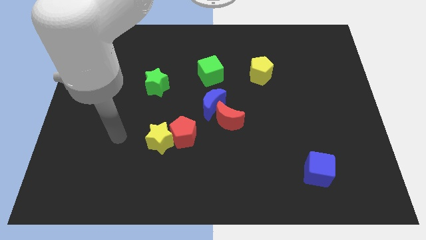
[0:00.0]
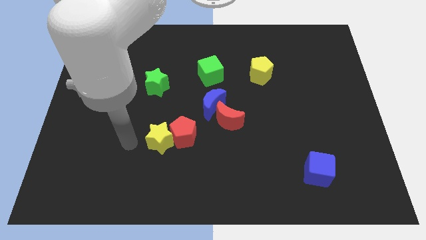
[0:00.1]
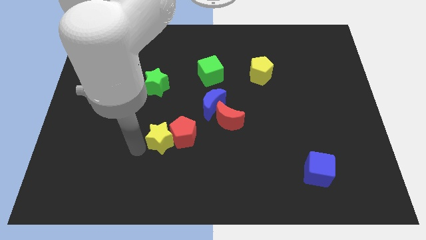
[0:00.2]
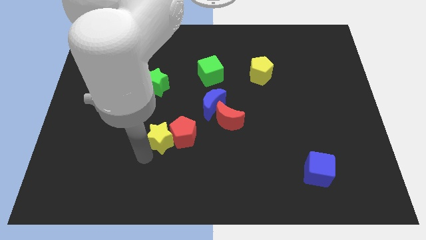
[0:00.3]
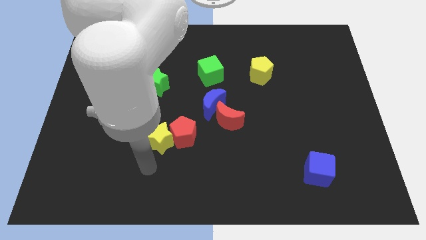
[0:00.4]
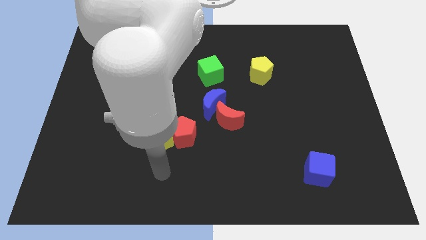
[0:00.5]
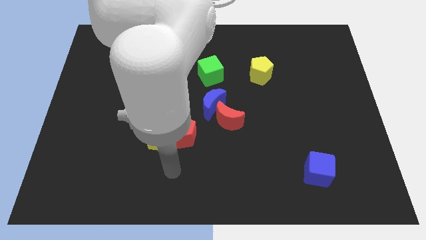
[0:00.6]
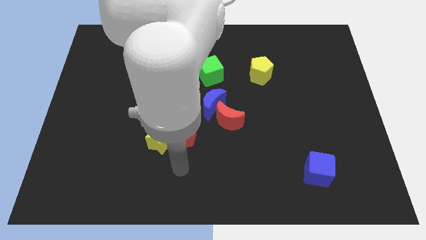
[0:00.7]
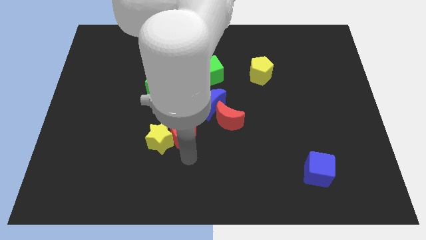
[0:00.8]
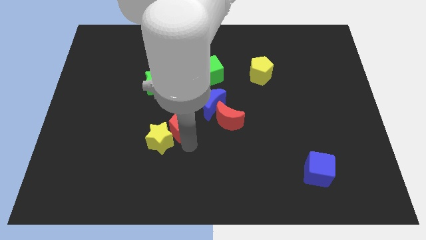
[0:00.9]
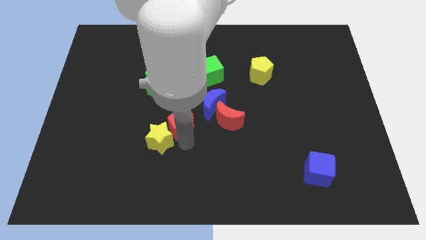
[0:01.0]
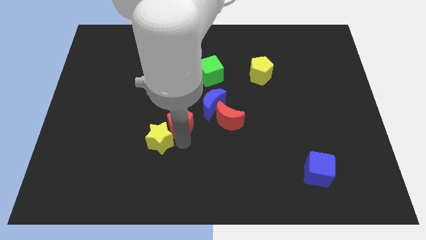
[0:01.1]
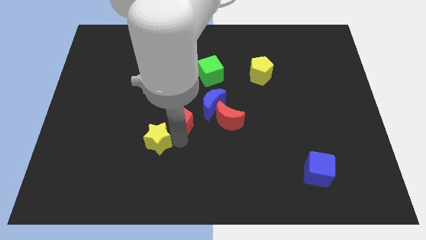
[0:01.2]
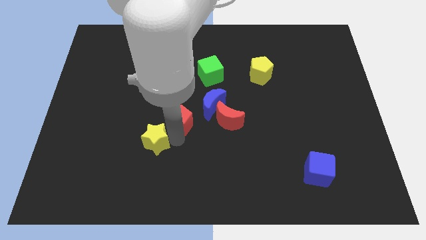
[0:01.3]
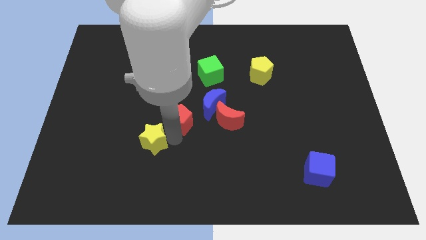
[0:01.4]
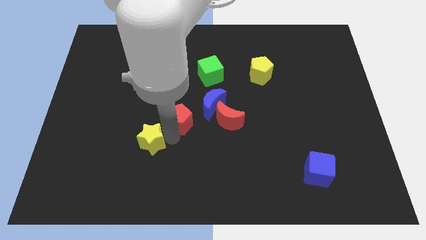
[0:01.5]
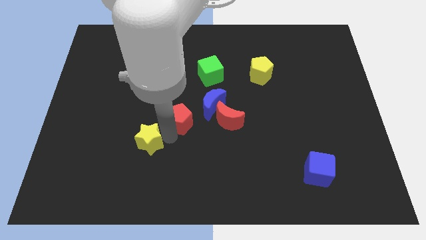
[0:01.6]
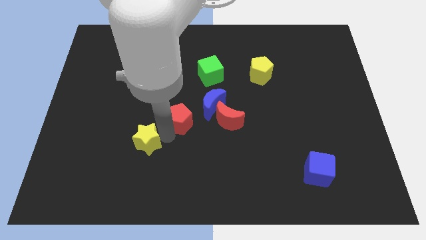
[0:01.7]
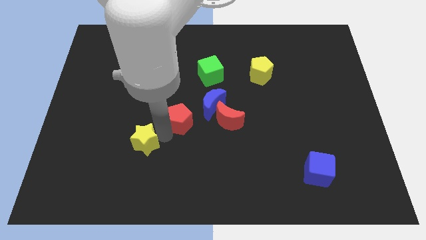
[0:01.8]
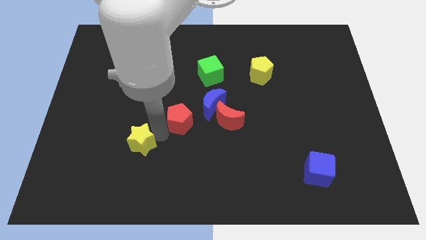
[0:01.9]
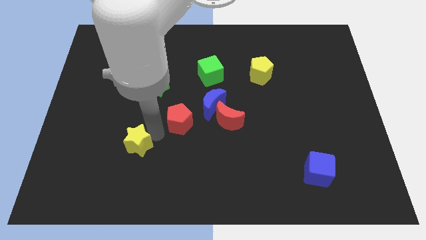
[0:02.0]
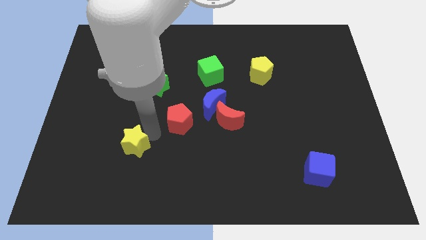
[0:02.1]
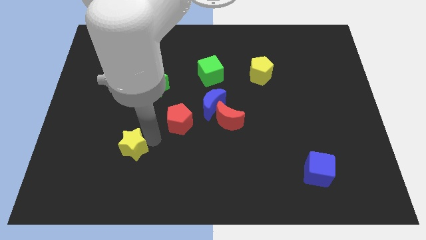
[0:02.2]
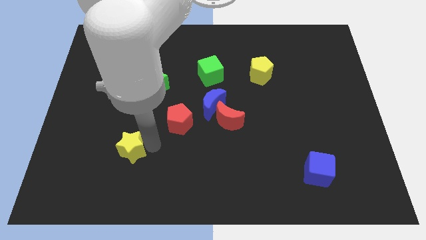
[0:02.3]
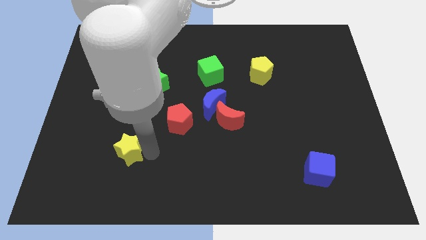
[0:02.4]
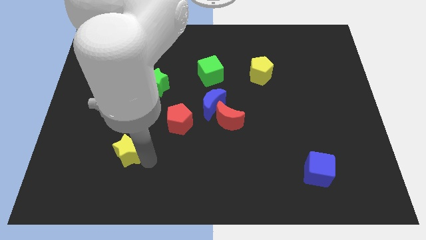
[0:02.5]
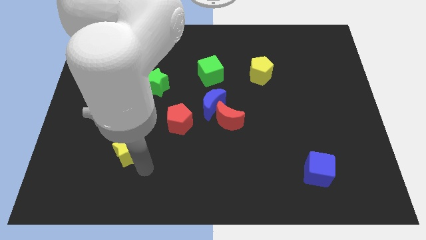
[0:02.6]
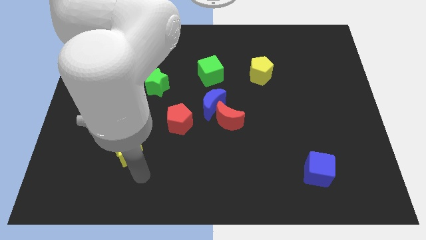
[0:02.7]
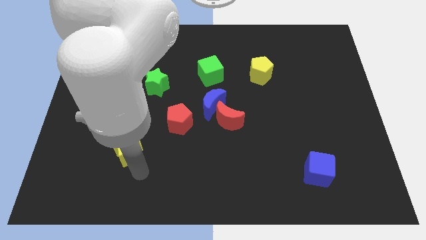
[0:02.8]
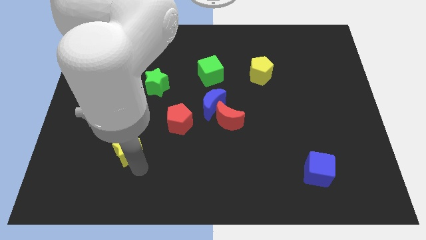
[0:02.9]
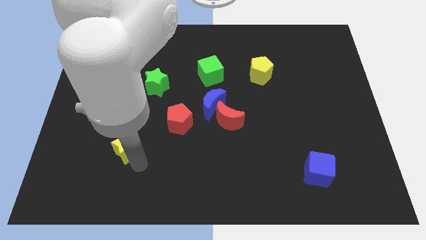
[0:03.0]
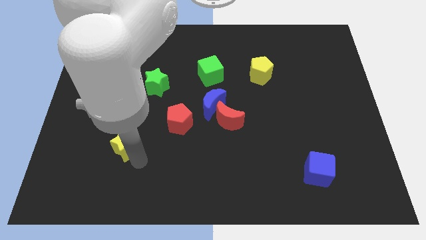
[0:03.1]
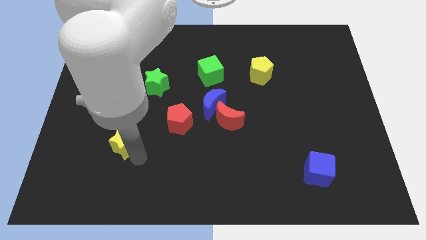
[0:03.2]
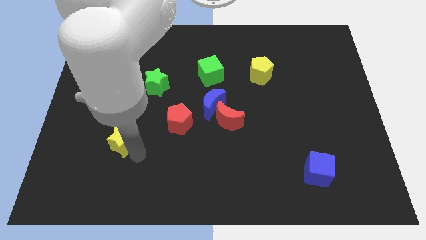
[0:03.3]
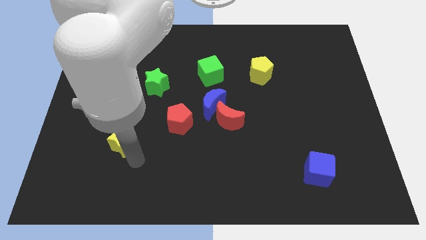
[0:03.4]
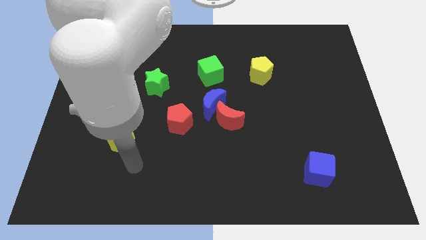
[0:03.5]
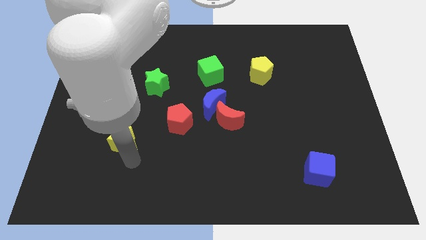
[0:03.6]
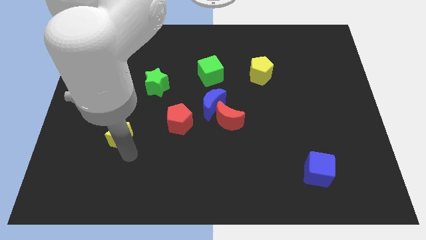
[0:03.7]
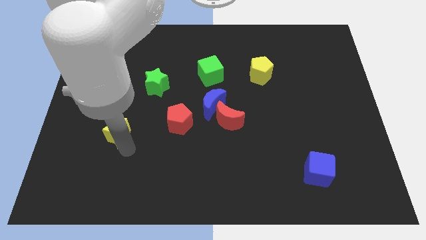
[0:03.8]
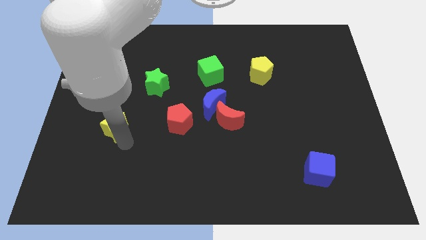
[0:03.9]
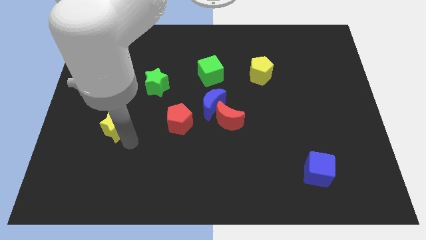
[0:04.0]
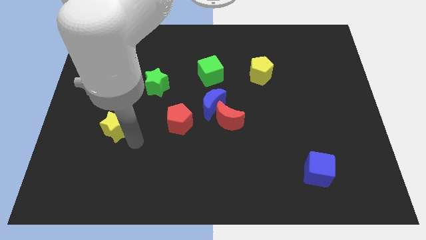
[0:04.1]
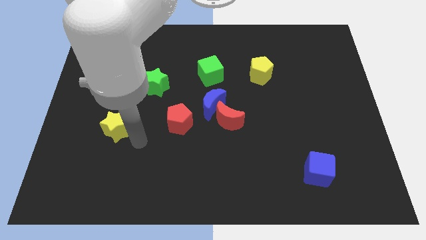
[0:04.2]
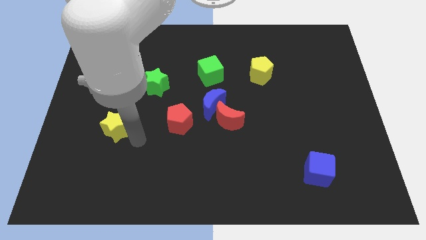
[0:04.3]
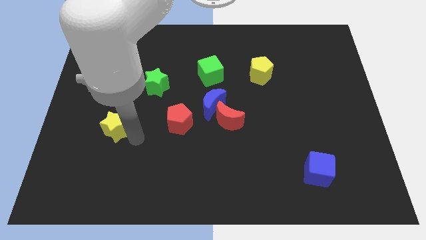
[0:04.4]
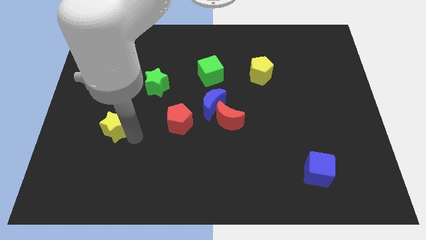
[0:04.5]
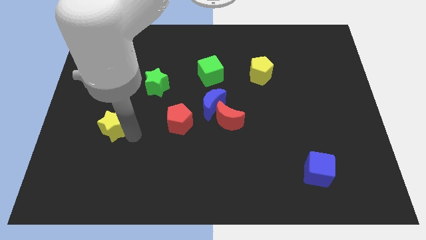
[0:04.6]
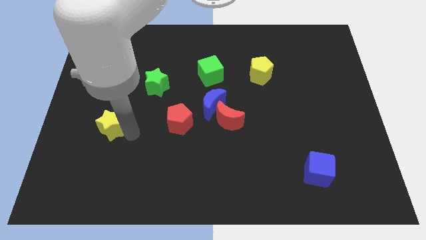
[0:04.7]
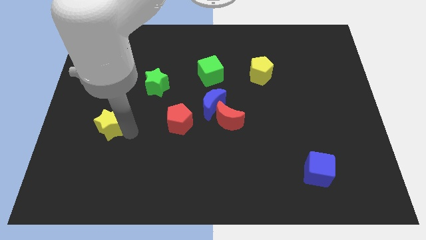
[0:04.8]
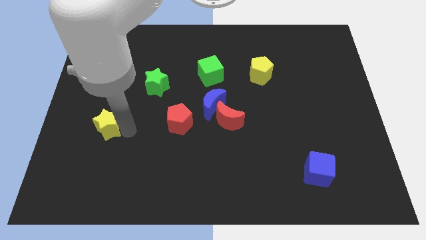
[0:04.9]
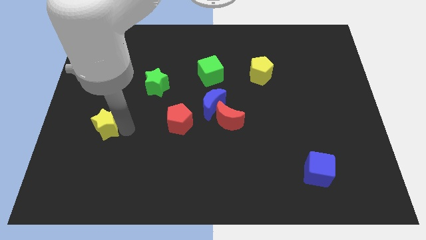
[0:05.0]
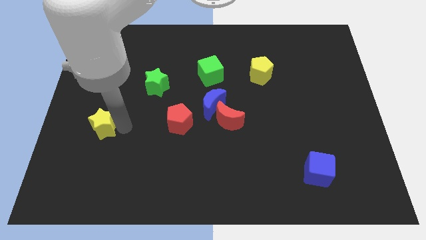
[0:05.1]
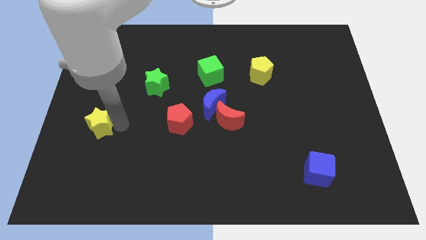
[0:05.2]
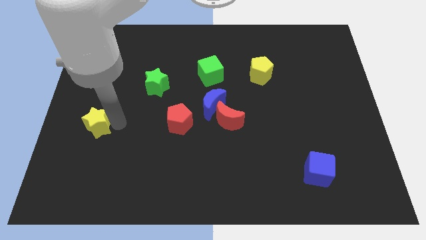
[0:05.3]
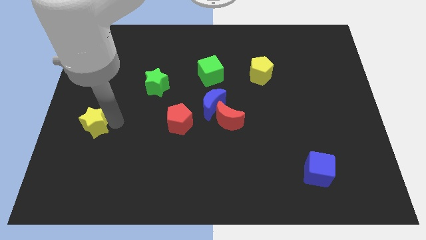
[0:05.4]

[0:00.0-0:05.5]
put the yellow star to the left side

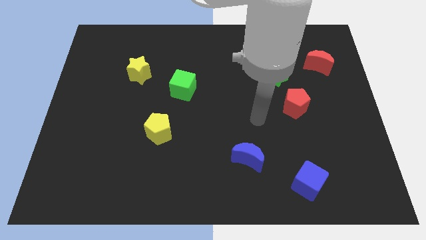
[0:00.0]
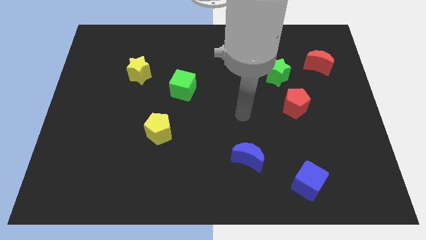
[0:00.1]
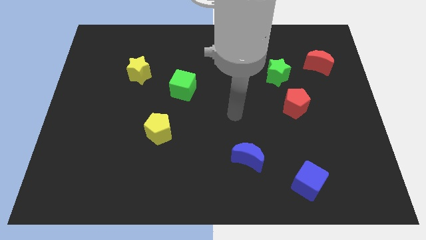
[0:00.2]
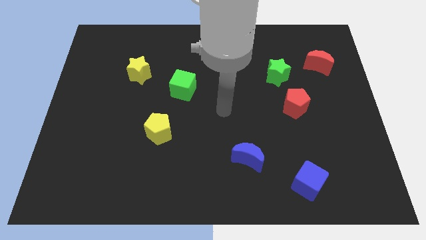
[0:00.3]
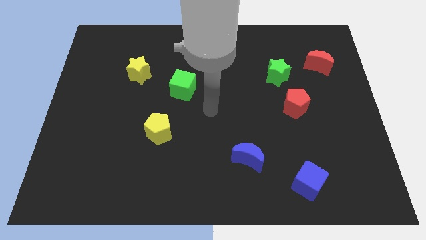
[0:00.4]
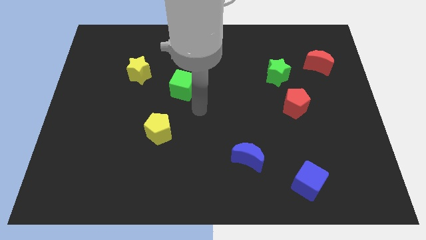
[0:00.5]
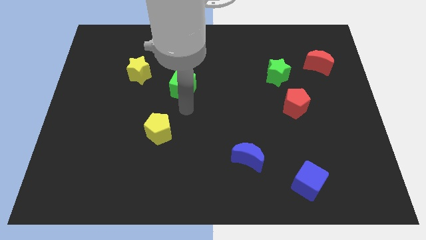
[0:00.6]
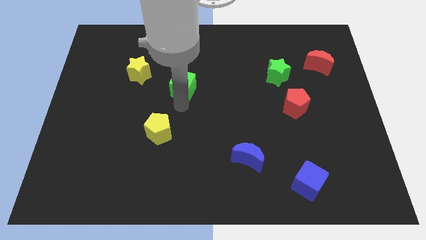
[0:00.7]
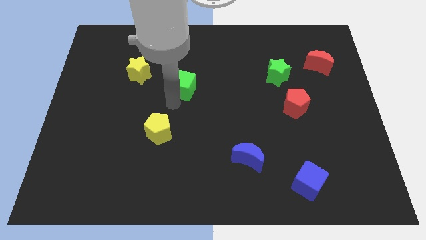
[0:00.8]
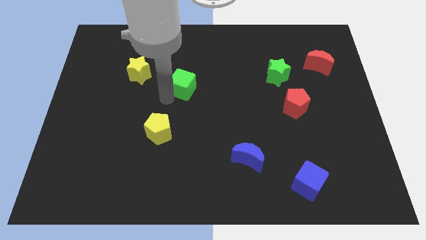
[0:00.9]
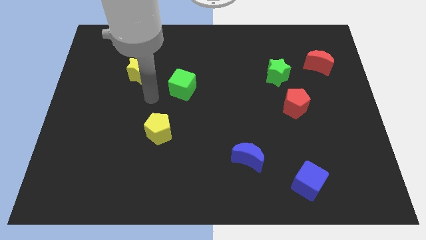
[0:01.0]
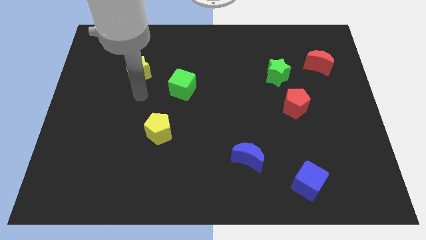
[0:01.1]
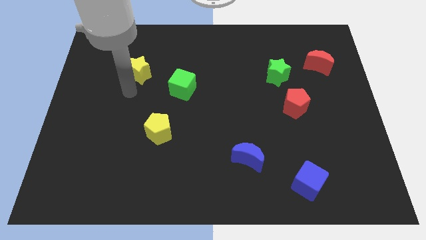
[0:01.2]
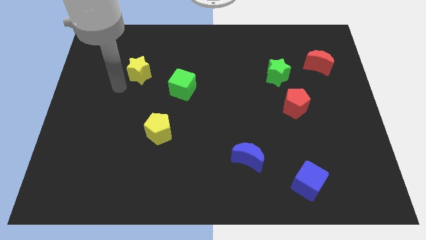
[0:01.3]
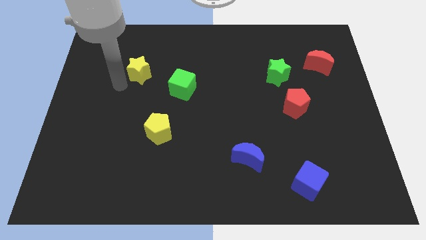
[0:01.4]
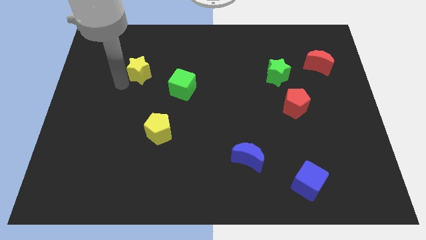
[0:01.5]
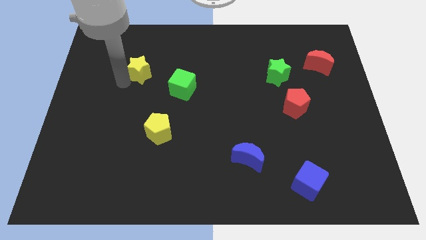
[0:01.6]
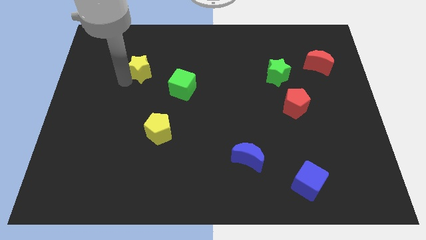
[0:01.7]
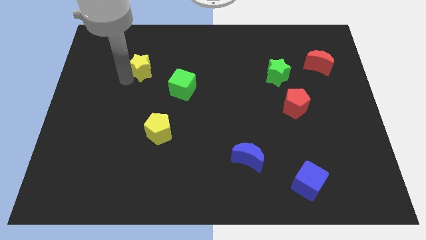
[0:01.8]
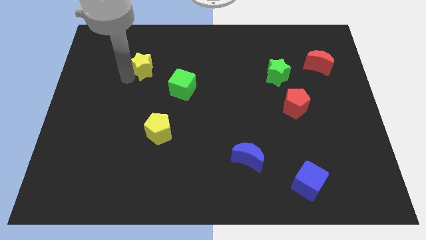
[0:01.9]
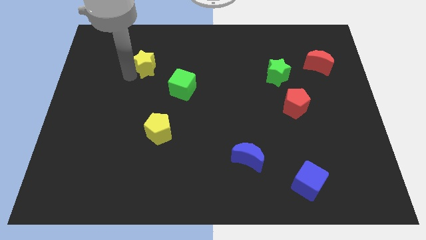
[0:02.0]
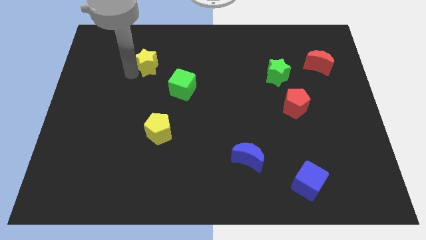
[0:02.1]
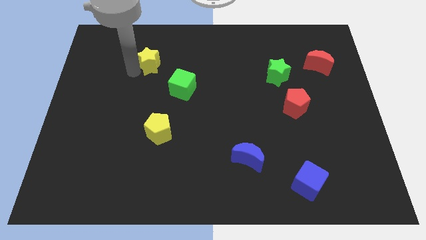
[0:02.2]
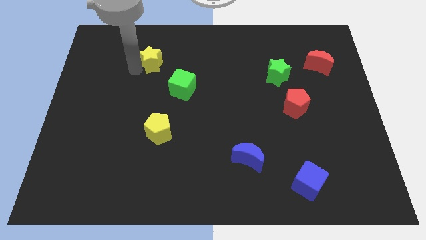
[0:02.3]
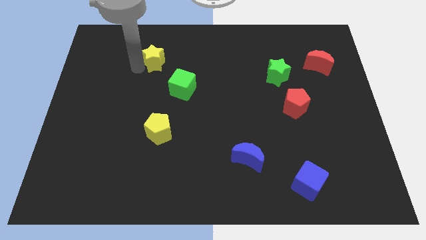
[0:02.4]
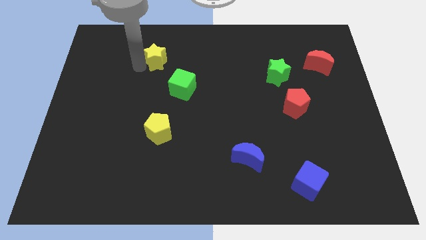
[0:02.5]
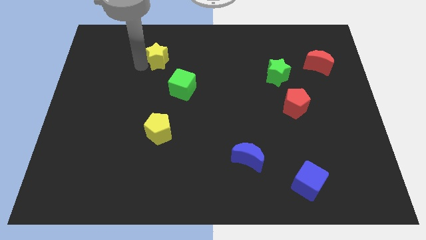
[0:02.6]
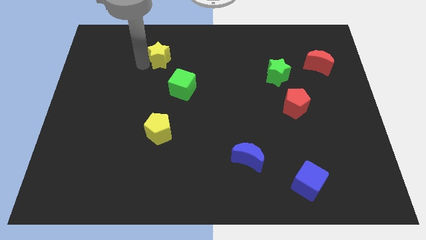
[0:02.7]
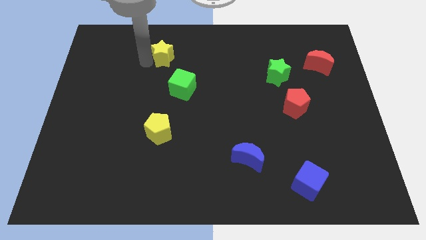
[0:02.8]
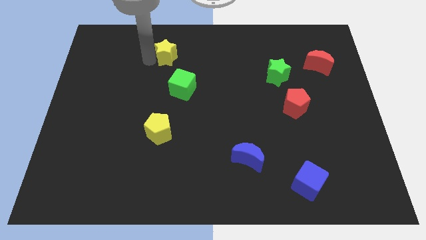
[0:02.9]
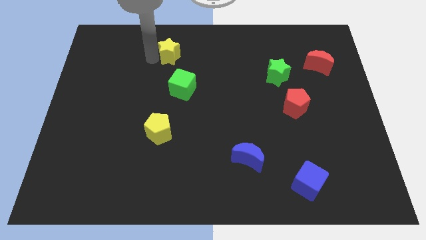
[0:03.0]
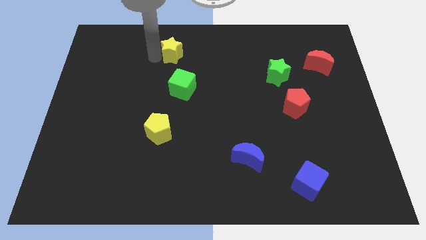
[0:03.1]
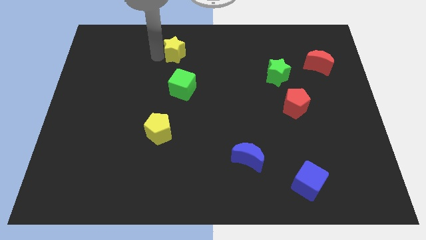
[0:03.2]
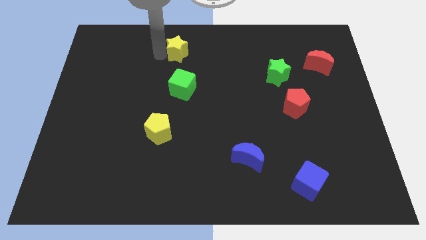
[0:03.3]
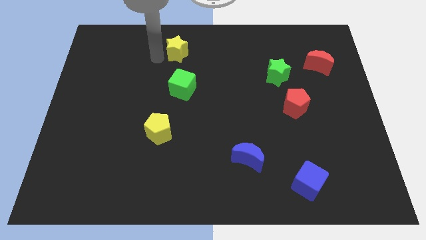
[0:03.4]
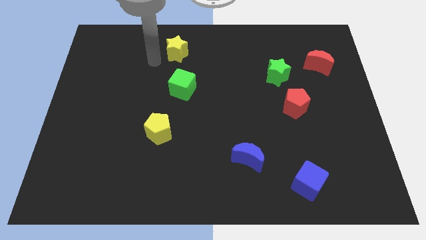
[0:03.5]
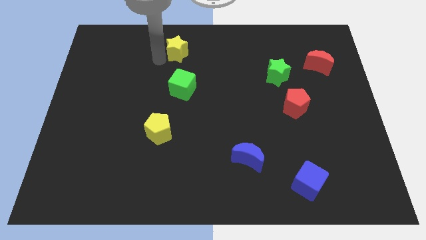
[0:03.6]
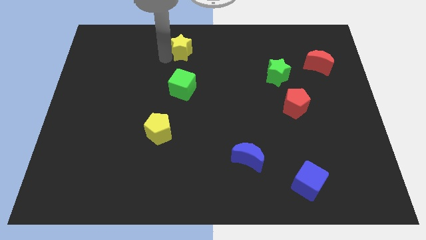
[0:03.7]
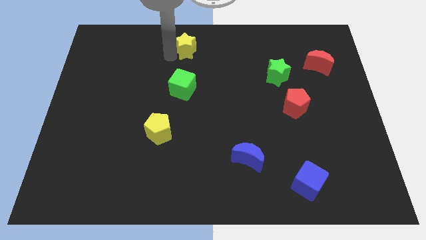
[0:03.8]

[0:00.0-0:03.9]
put the yellow star to the top side
